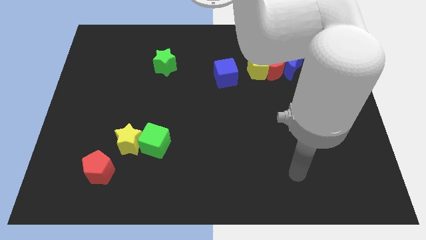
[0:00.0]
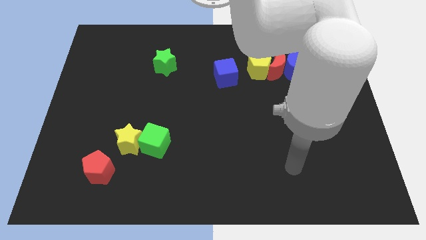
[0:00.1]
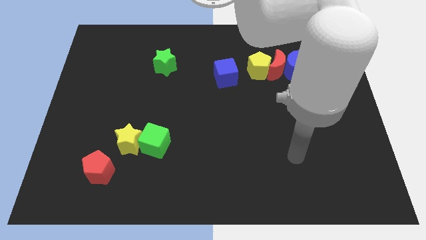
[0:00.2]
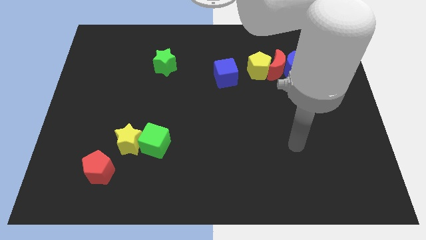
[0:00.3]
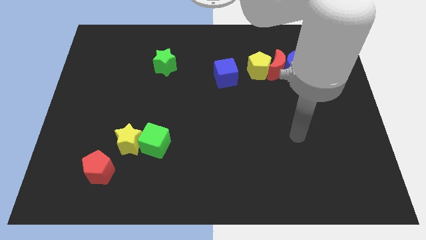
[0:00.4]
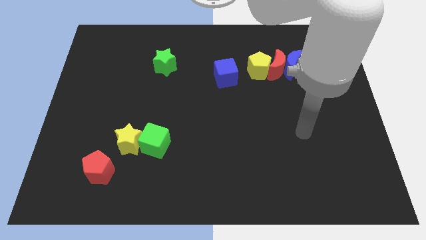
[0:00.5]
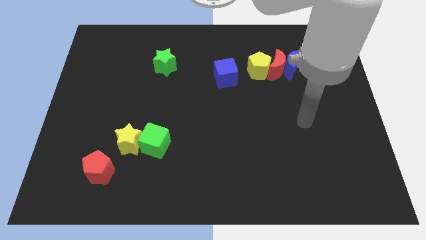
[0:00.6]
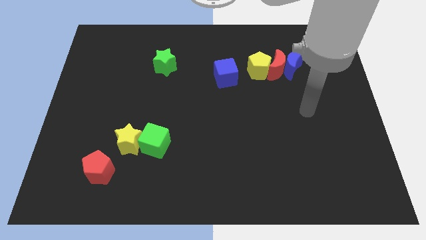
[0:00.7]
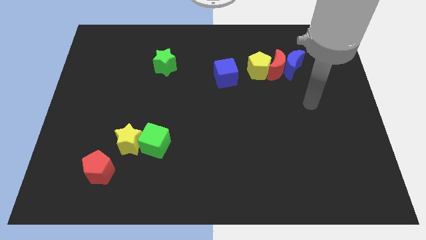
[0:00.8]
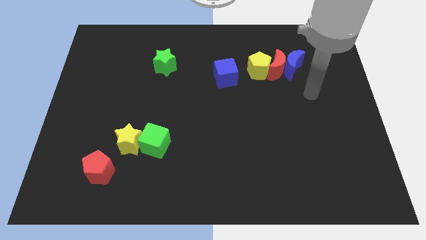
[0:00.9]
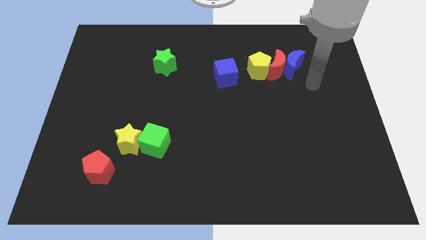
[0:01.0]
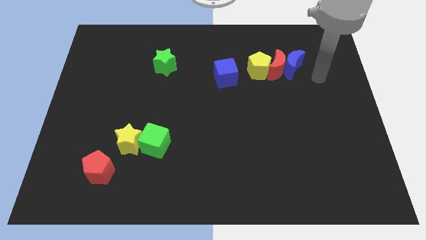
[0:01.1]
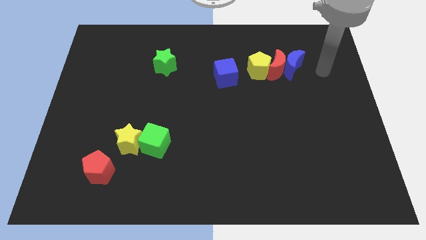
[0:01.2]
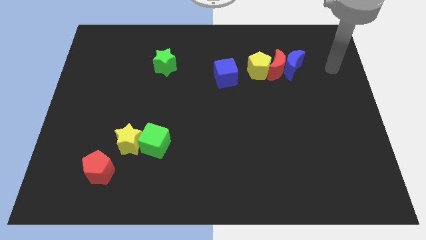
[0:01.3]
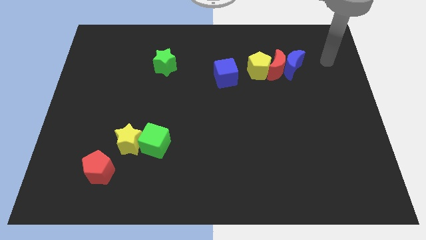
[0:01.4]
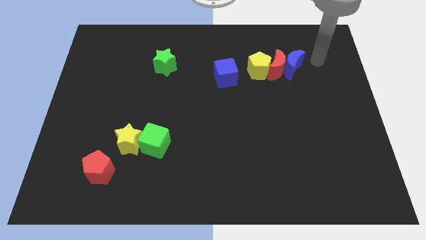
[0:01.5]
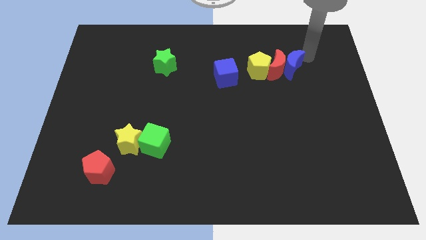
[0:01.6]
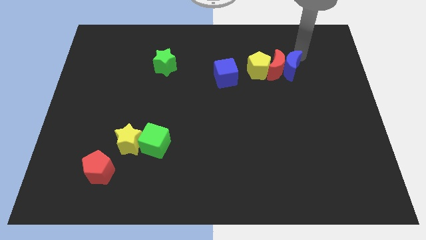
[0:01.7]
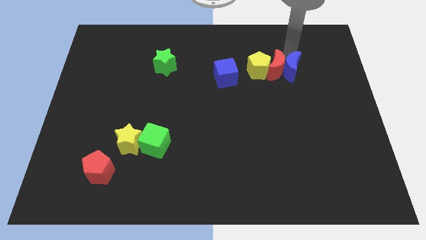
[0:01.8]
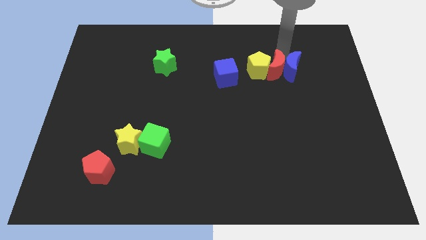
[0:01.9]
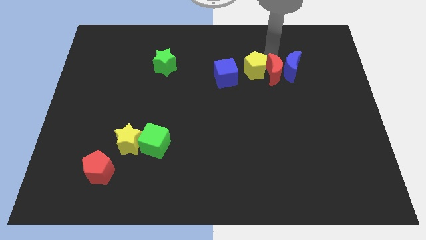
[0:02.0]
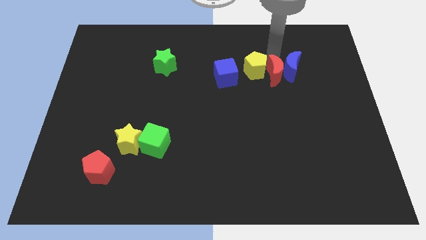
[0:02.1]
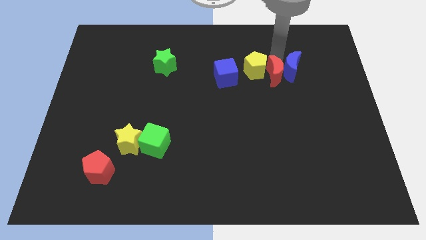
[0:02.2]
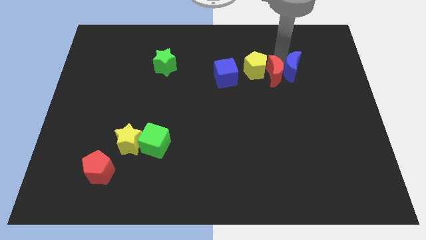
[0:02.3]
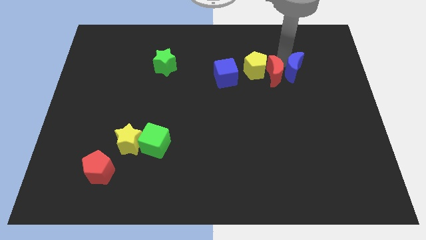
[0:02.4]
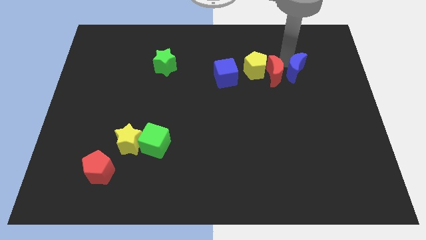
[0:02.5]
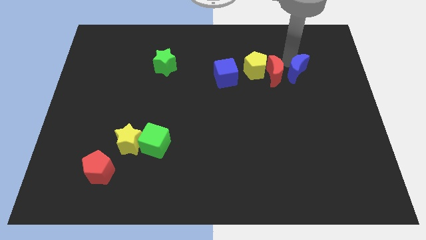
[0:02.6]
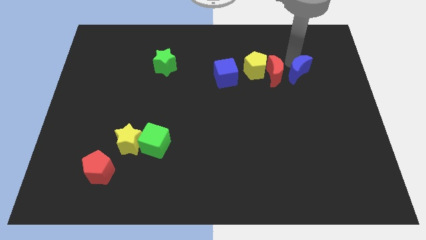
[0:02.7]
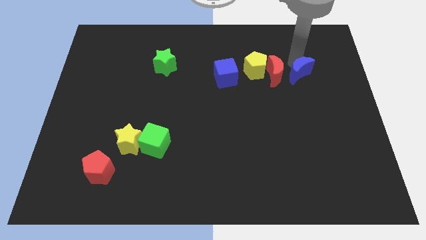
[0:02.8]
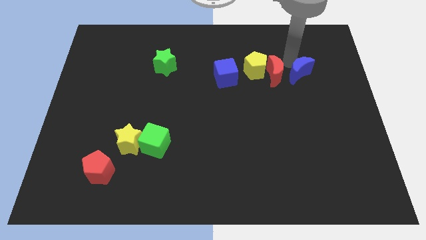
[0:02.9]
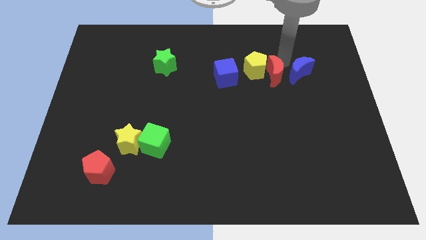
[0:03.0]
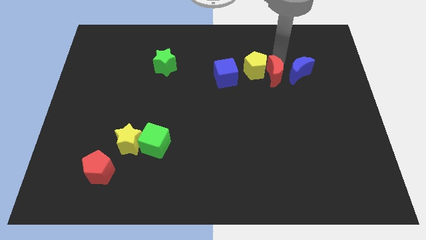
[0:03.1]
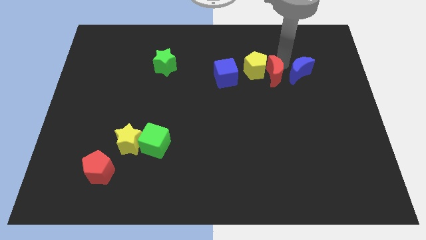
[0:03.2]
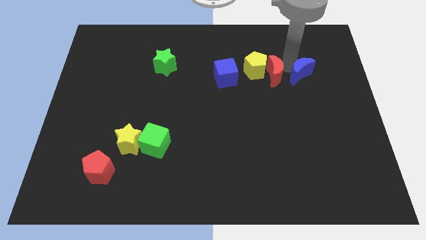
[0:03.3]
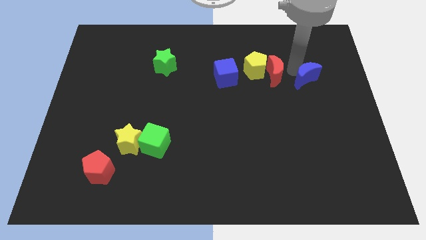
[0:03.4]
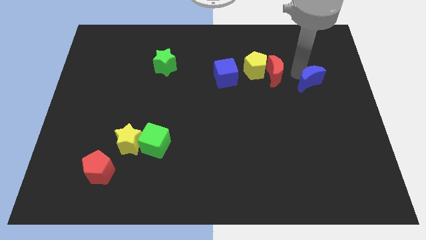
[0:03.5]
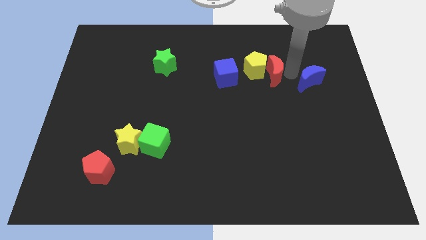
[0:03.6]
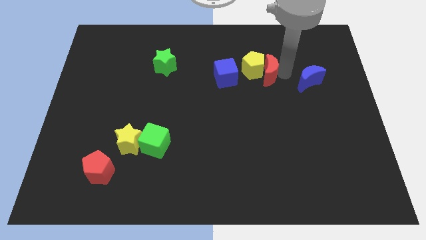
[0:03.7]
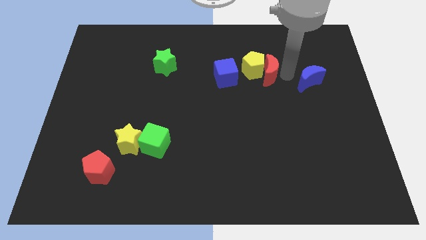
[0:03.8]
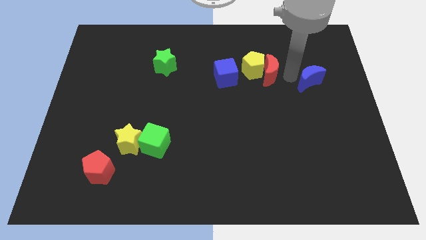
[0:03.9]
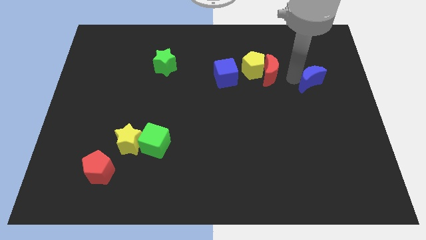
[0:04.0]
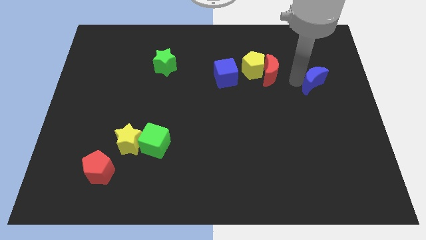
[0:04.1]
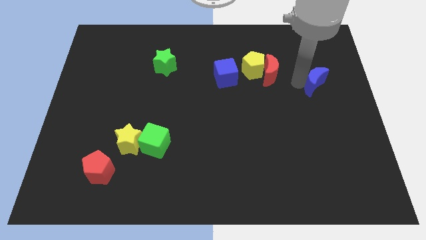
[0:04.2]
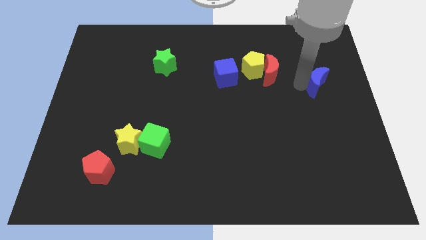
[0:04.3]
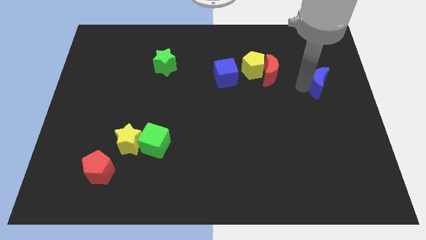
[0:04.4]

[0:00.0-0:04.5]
put the blue moon to the right side of the board

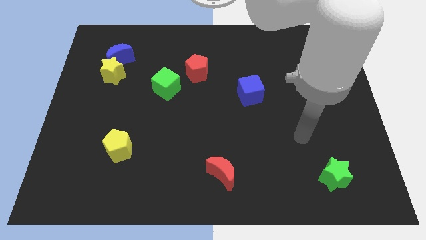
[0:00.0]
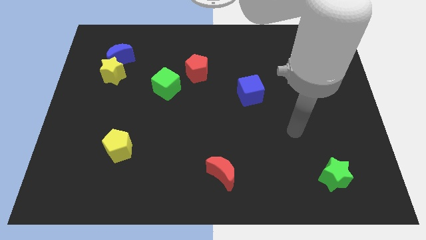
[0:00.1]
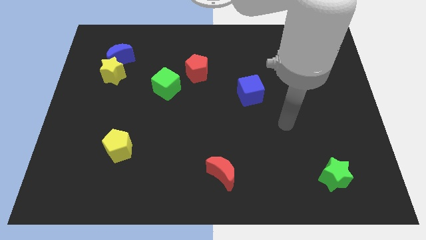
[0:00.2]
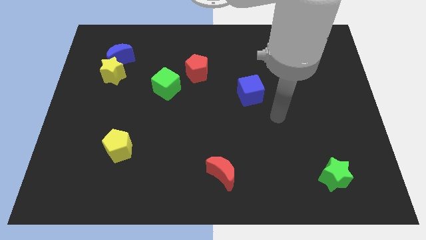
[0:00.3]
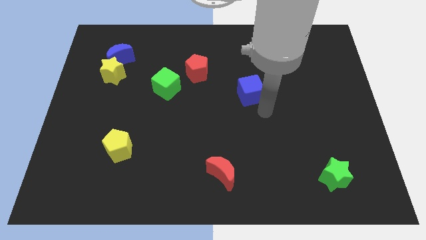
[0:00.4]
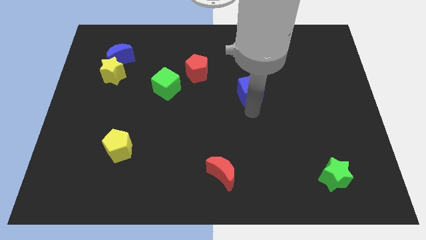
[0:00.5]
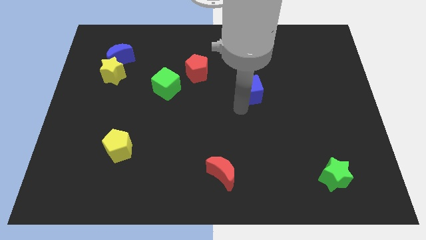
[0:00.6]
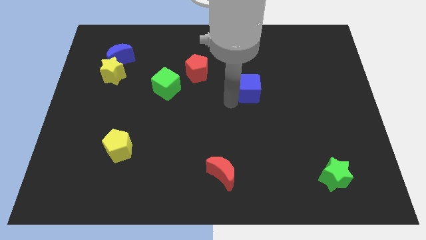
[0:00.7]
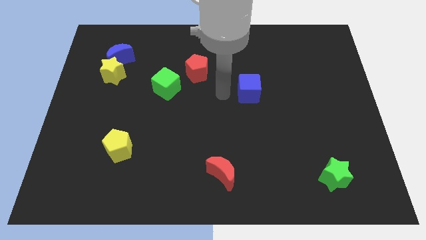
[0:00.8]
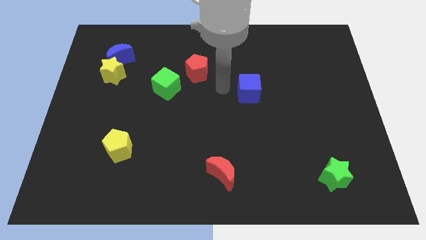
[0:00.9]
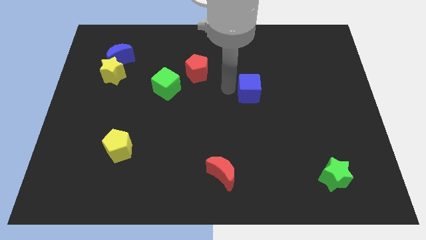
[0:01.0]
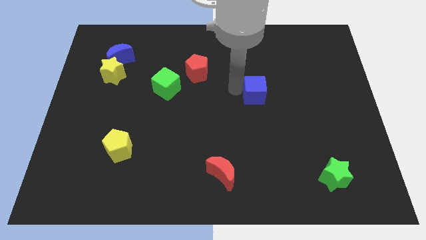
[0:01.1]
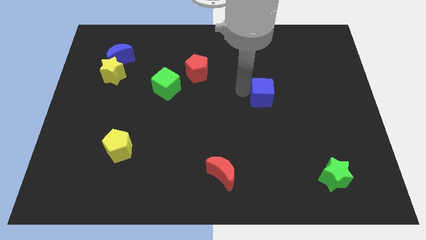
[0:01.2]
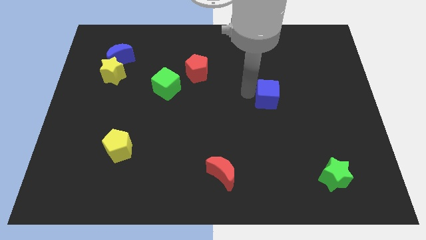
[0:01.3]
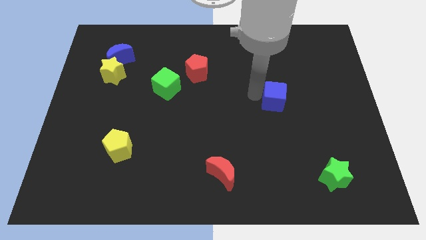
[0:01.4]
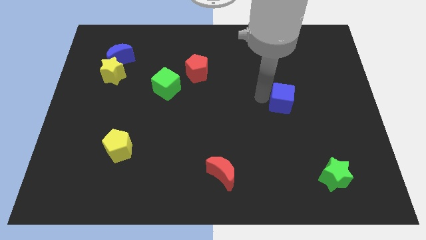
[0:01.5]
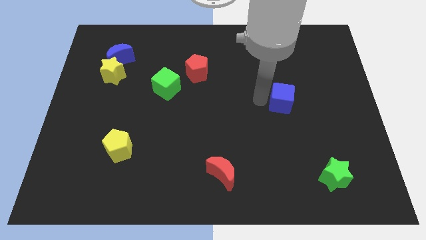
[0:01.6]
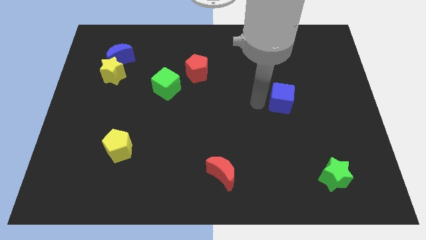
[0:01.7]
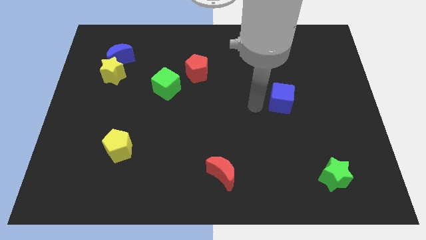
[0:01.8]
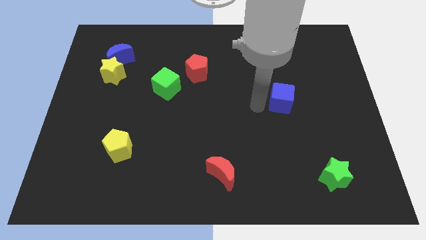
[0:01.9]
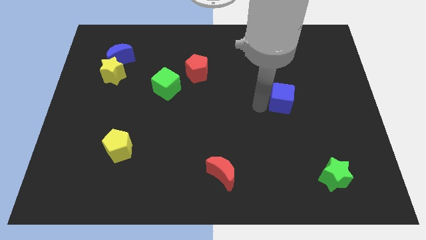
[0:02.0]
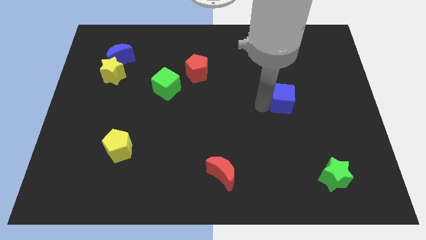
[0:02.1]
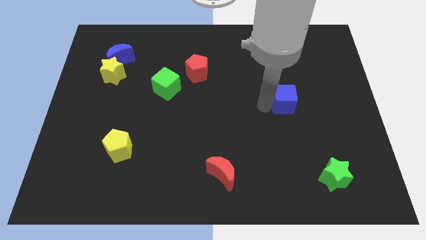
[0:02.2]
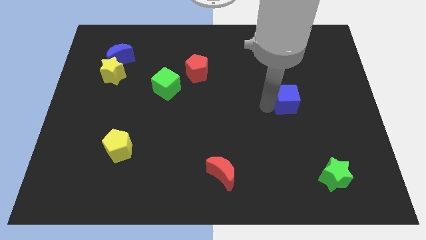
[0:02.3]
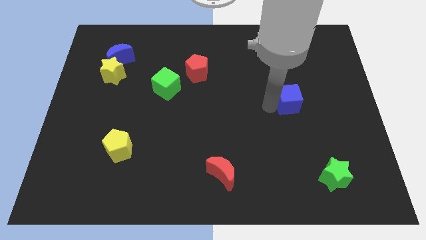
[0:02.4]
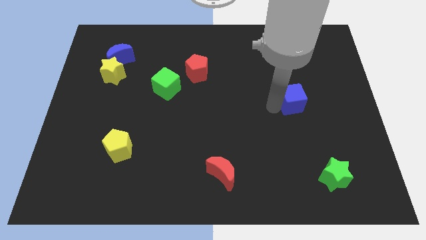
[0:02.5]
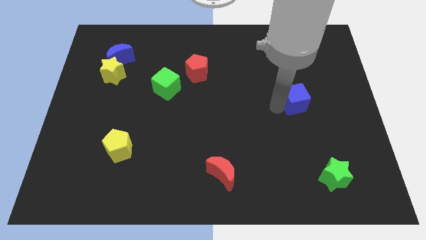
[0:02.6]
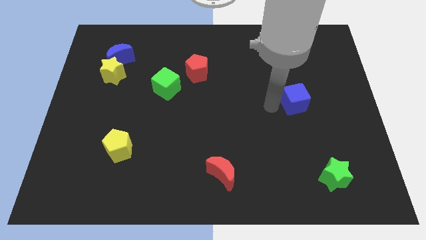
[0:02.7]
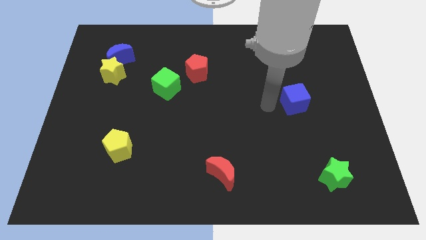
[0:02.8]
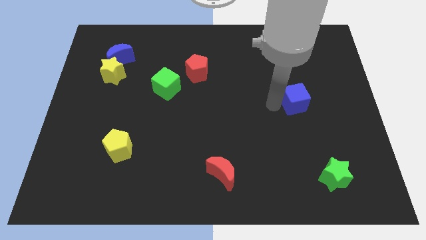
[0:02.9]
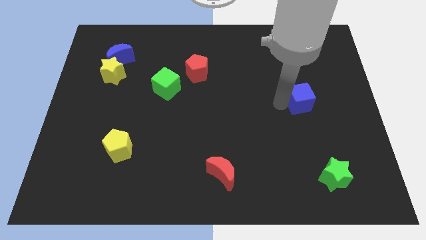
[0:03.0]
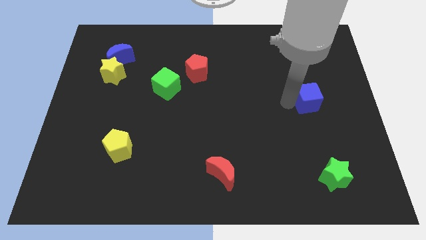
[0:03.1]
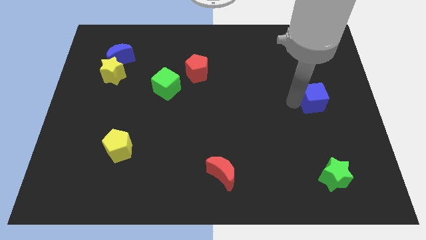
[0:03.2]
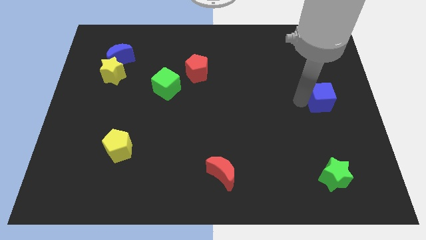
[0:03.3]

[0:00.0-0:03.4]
push the blue cube to the right side
